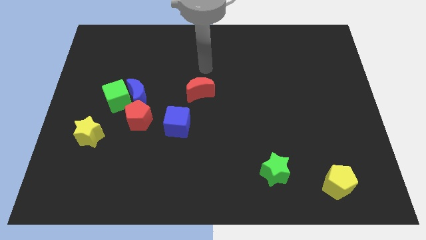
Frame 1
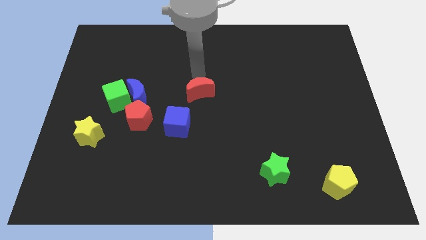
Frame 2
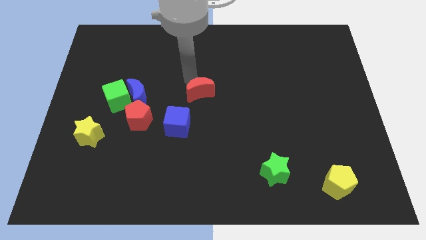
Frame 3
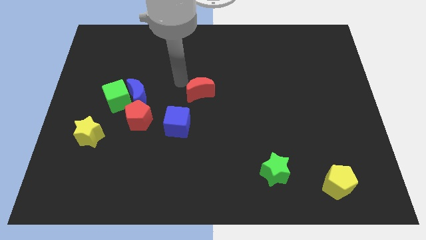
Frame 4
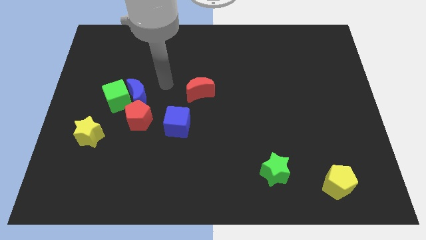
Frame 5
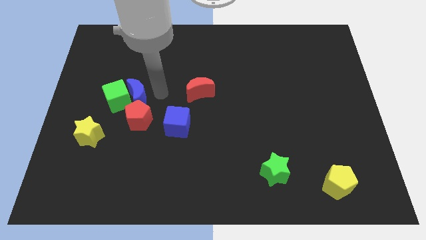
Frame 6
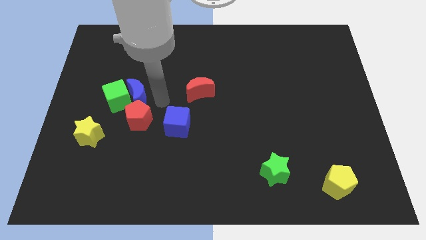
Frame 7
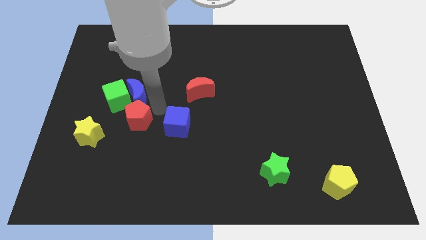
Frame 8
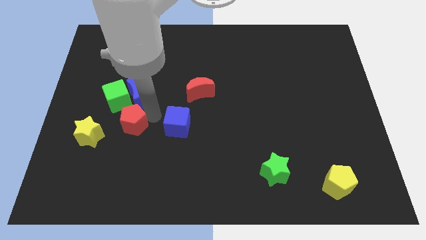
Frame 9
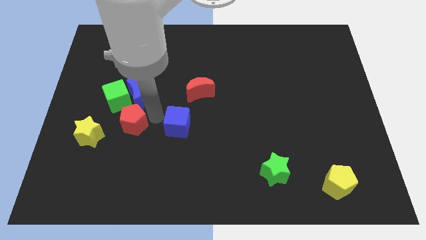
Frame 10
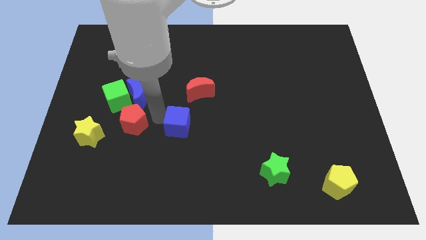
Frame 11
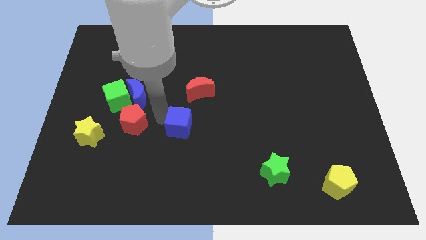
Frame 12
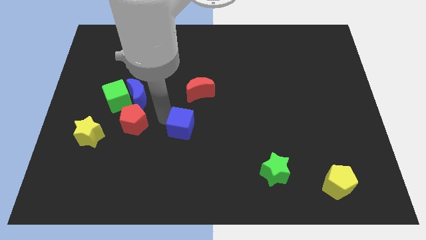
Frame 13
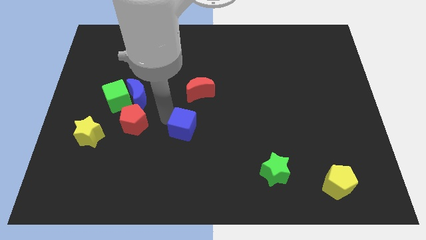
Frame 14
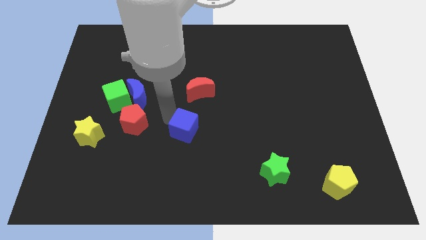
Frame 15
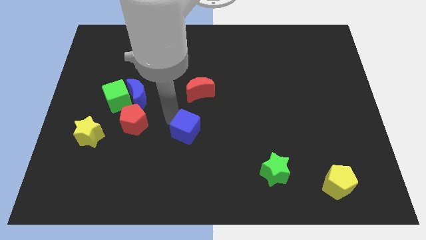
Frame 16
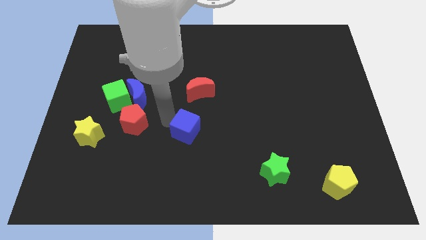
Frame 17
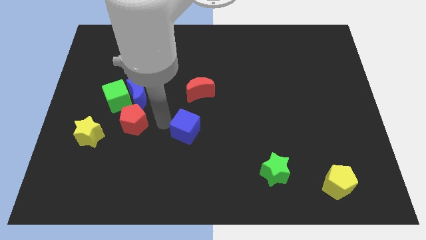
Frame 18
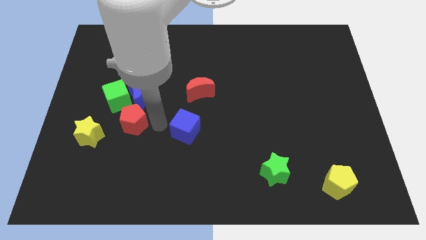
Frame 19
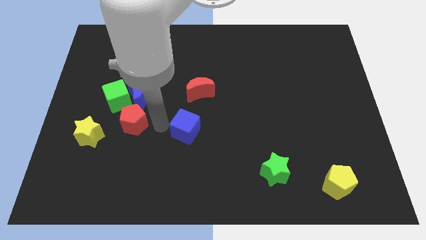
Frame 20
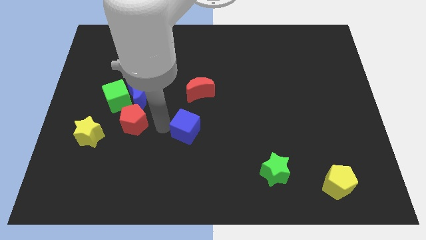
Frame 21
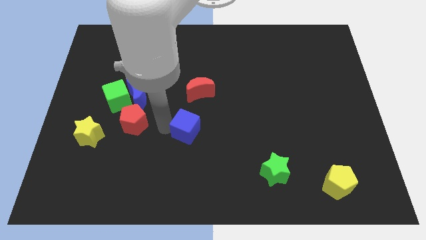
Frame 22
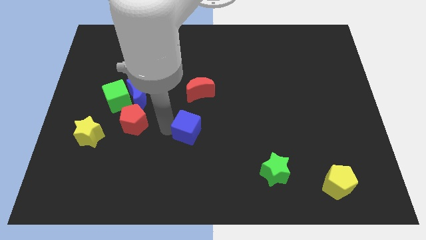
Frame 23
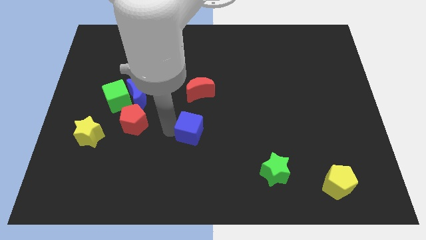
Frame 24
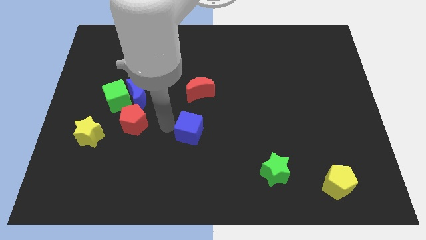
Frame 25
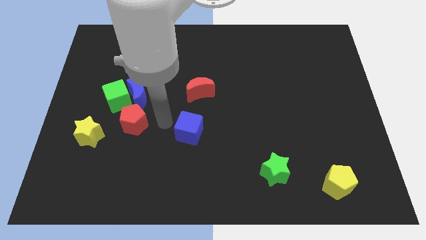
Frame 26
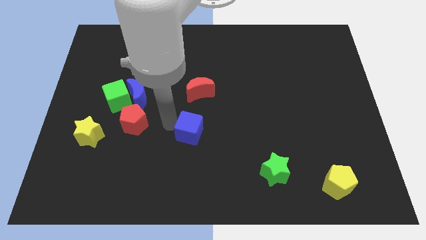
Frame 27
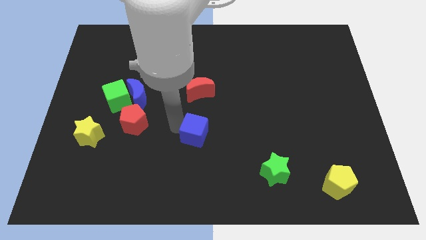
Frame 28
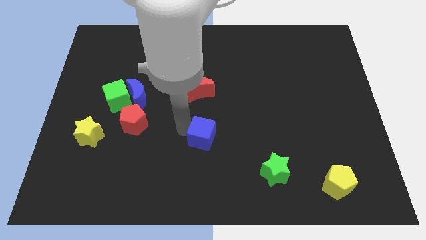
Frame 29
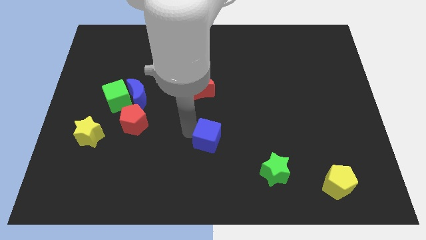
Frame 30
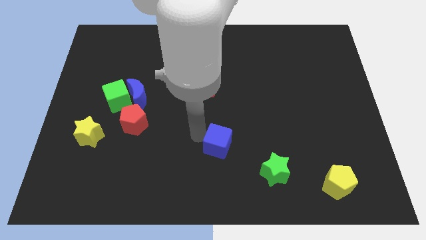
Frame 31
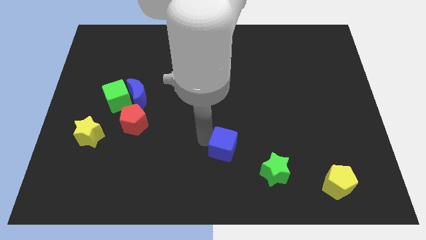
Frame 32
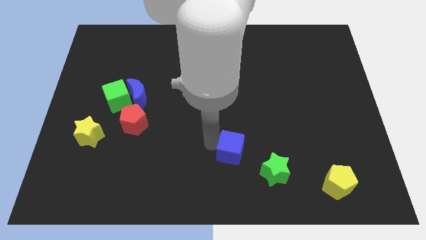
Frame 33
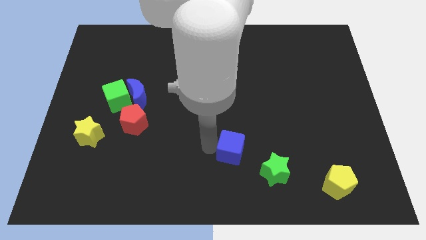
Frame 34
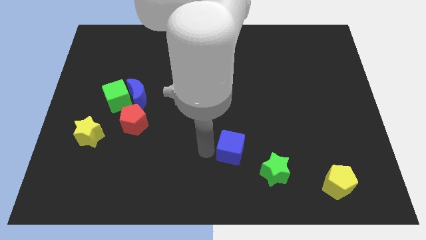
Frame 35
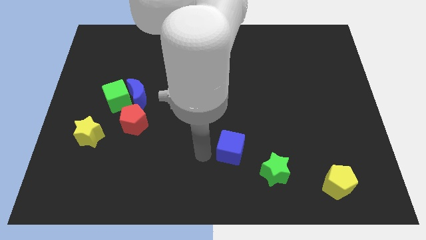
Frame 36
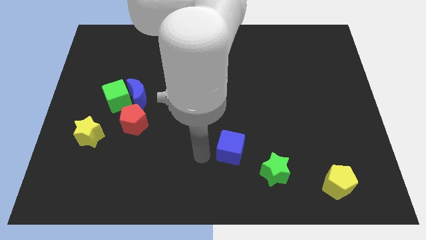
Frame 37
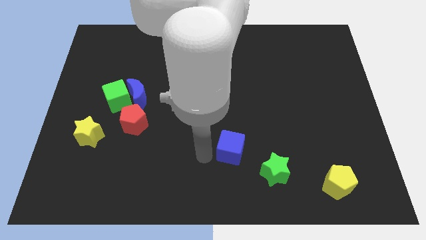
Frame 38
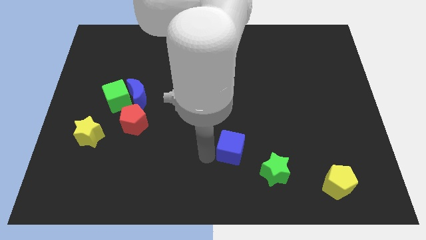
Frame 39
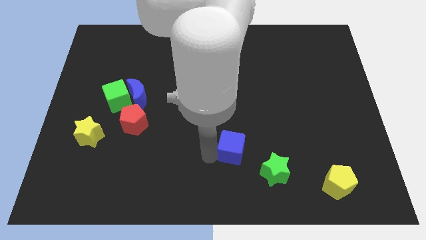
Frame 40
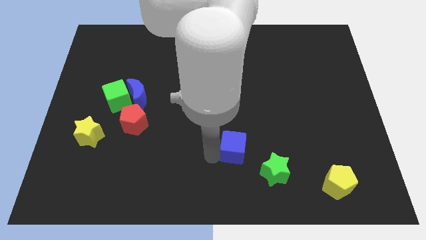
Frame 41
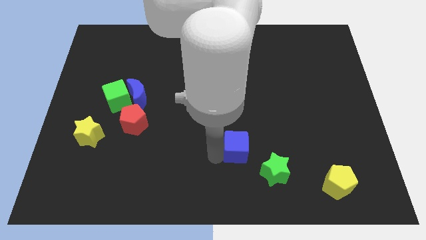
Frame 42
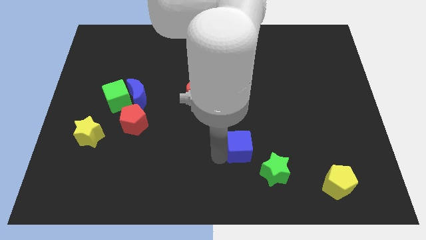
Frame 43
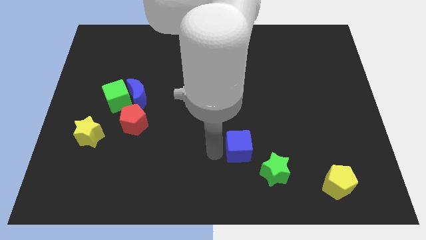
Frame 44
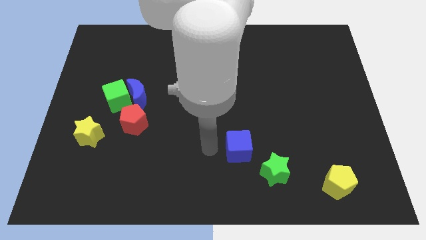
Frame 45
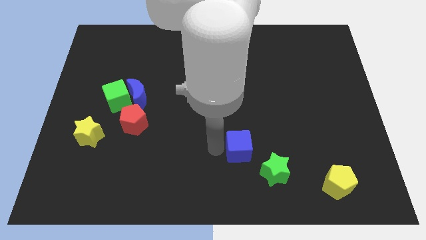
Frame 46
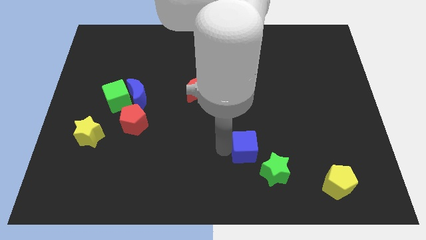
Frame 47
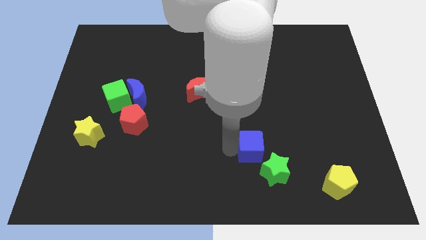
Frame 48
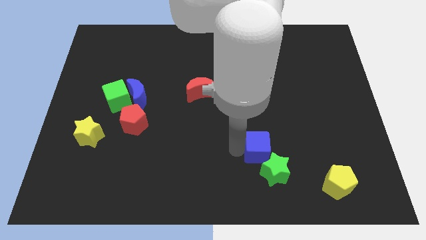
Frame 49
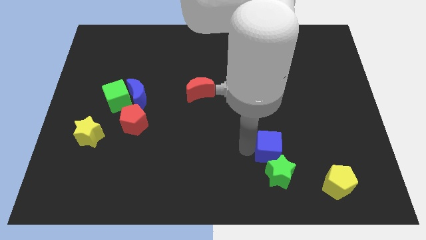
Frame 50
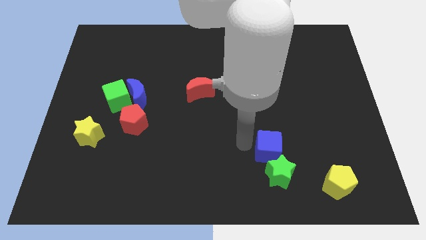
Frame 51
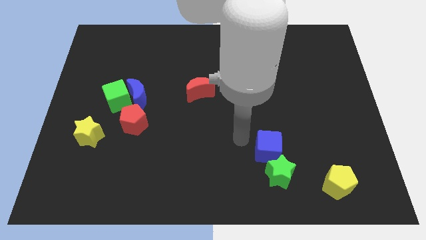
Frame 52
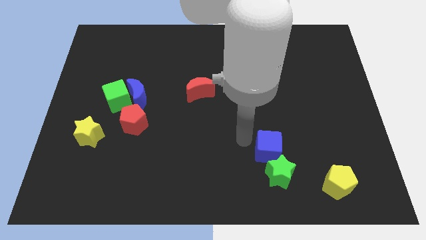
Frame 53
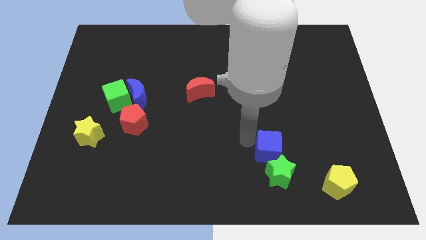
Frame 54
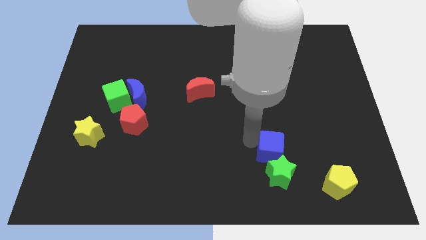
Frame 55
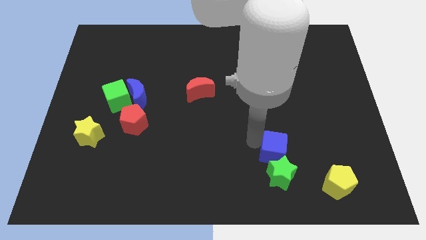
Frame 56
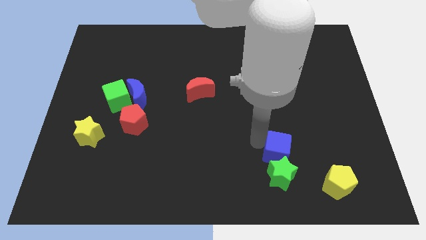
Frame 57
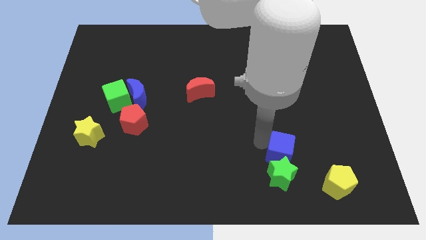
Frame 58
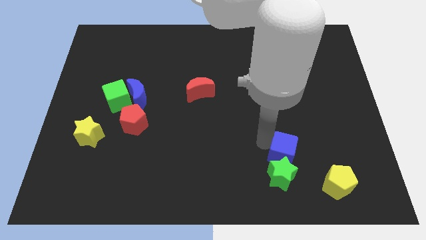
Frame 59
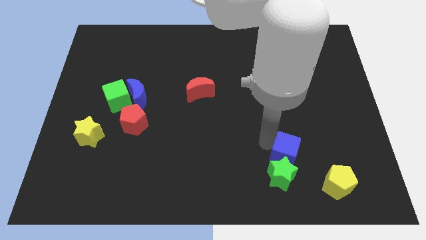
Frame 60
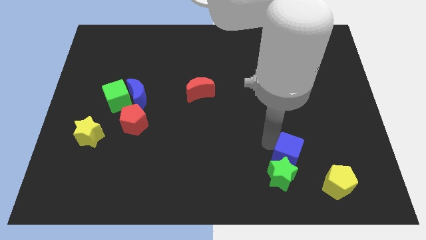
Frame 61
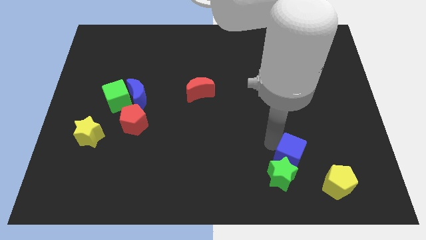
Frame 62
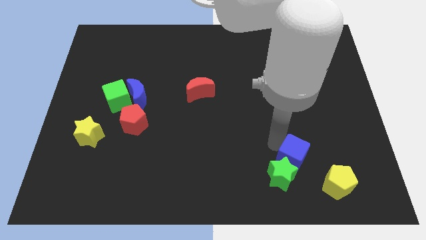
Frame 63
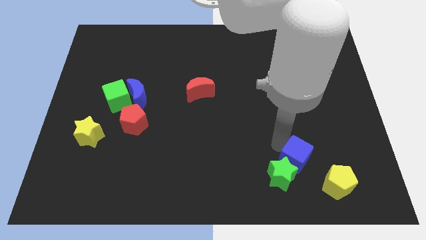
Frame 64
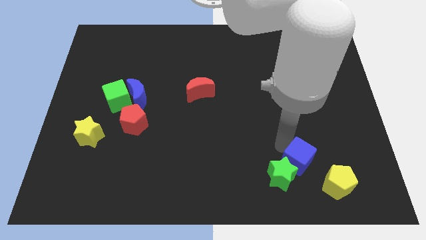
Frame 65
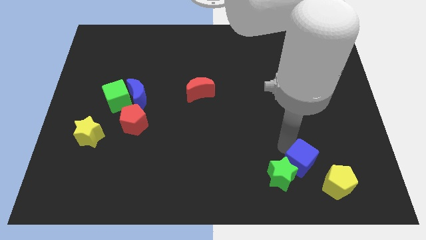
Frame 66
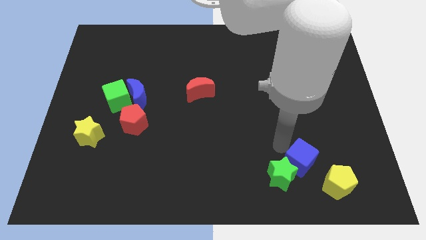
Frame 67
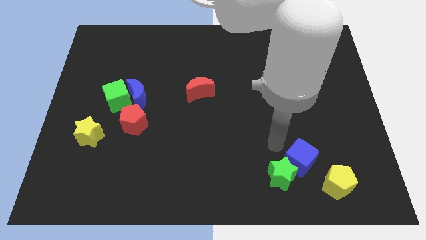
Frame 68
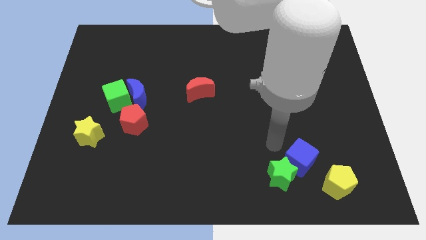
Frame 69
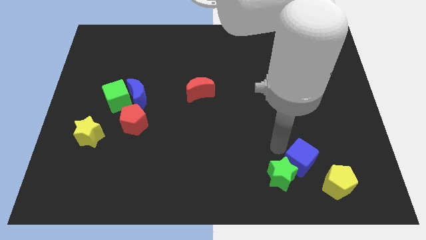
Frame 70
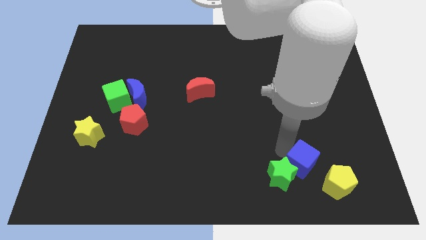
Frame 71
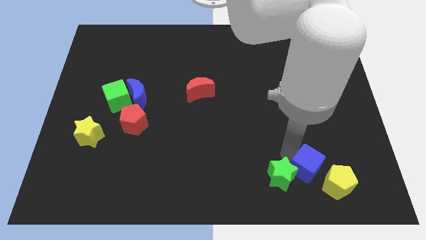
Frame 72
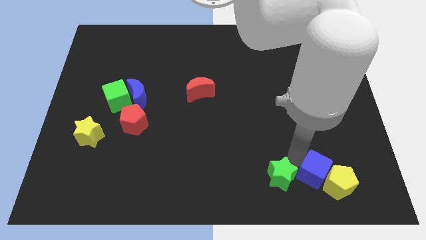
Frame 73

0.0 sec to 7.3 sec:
move the blue cube close to the yellow pentagon

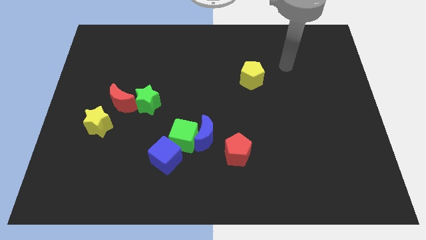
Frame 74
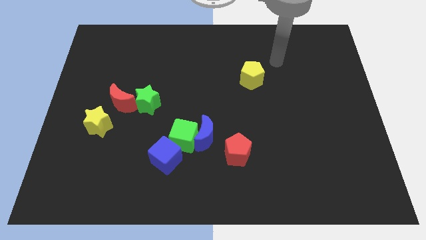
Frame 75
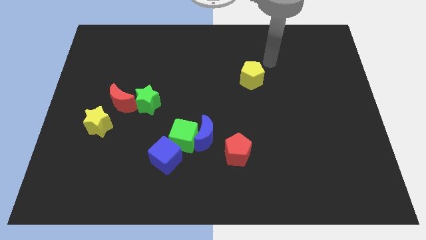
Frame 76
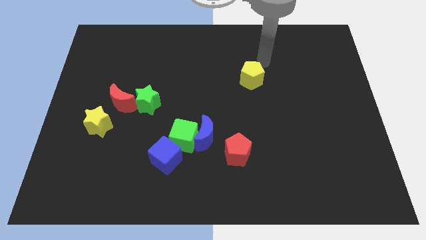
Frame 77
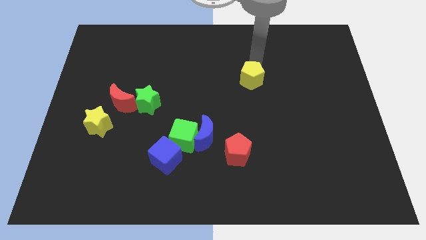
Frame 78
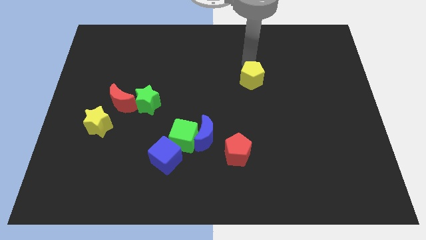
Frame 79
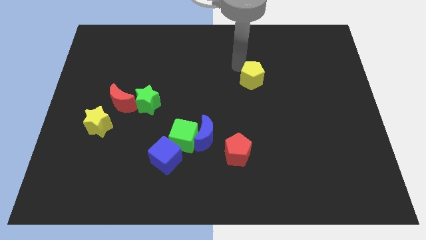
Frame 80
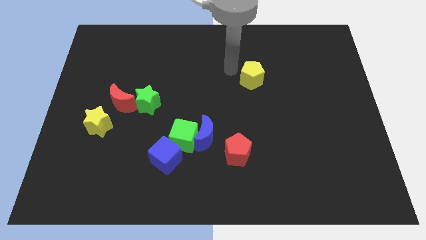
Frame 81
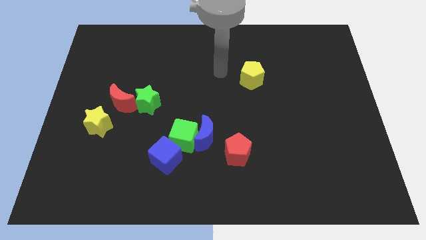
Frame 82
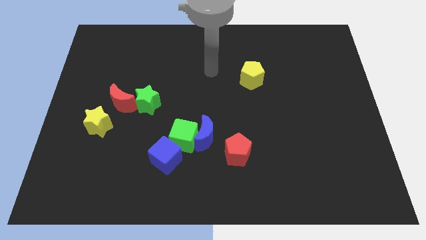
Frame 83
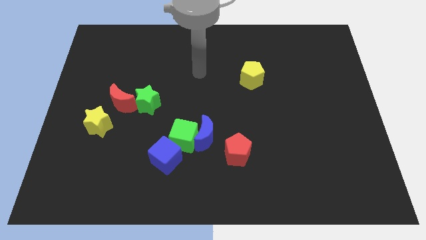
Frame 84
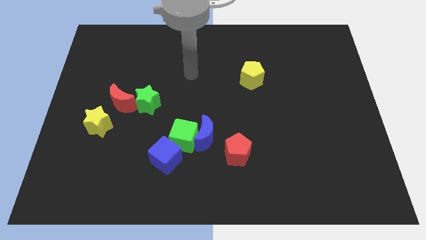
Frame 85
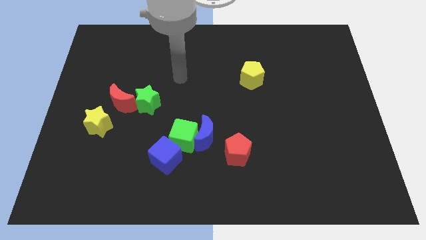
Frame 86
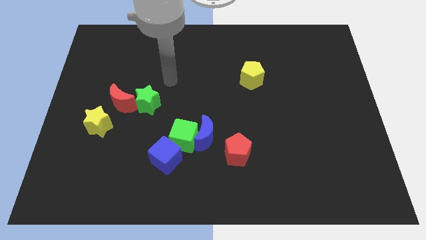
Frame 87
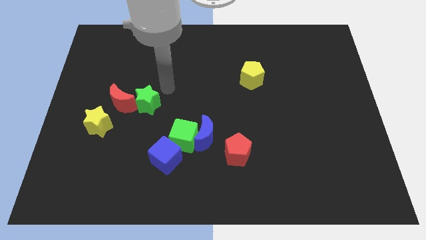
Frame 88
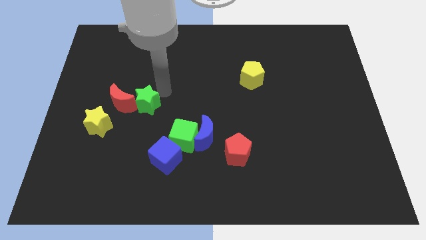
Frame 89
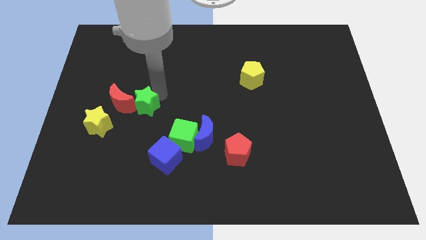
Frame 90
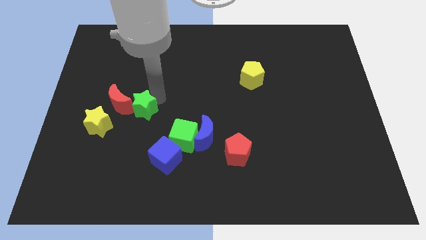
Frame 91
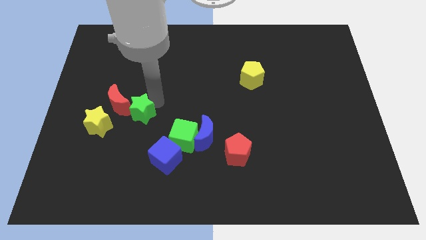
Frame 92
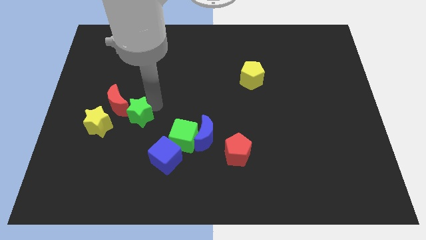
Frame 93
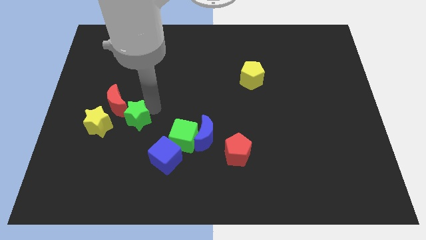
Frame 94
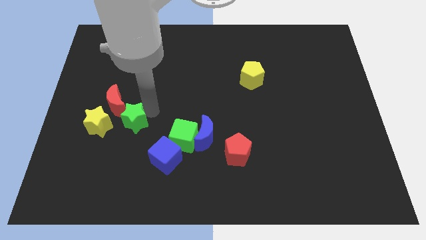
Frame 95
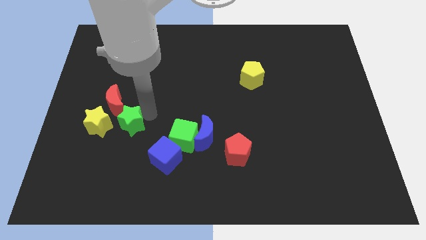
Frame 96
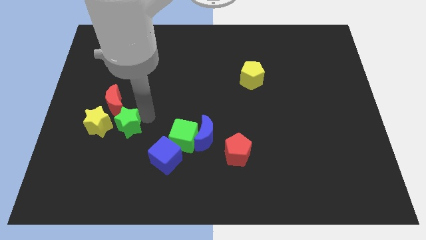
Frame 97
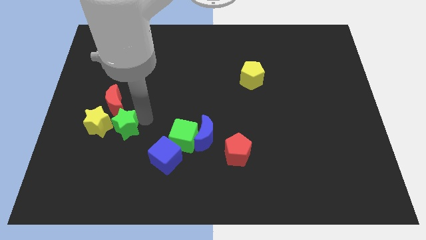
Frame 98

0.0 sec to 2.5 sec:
push the green star towards the yellow star
